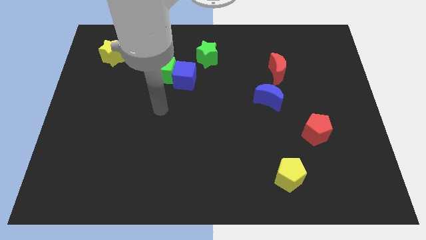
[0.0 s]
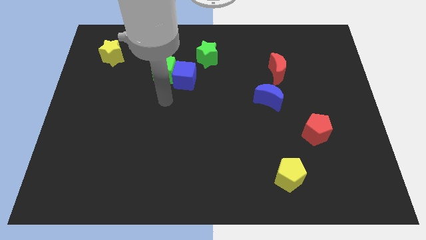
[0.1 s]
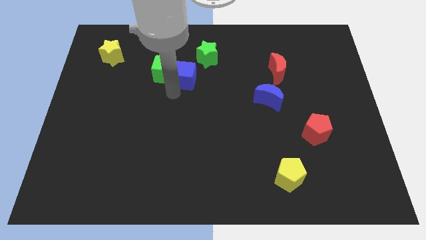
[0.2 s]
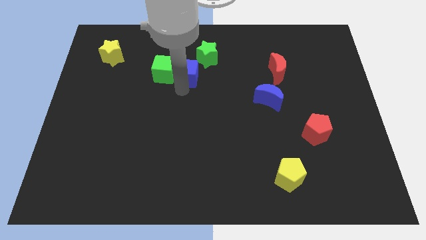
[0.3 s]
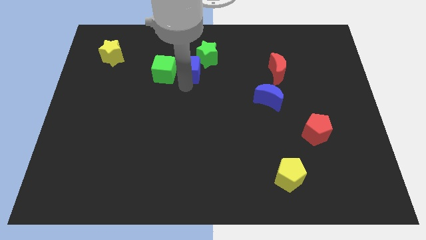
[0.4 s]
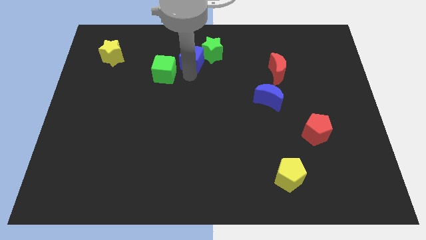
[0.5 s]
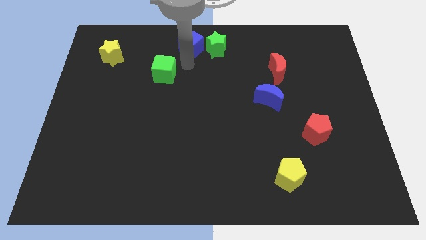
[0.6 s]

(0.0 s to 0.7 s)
pull the green cube apart from the blue cube

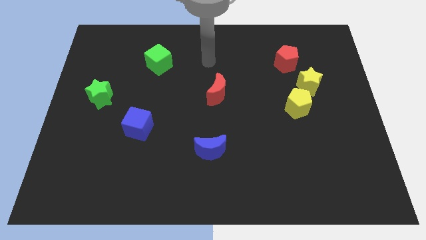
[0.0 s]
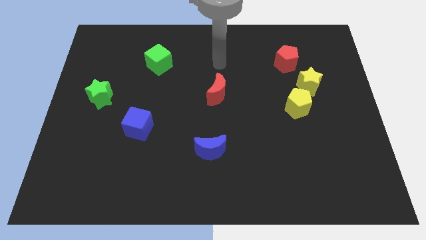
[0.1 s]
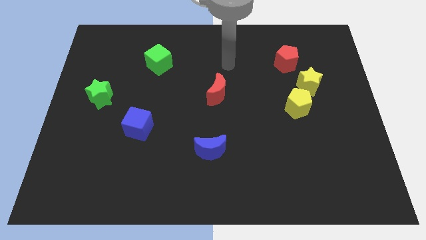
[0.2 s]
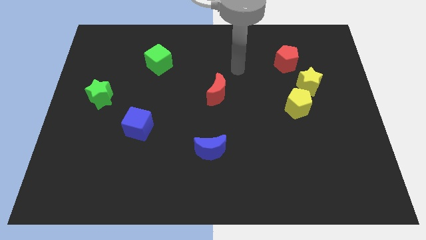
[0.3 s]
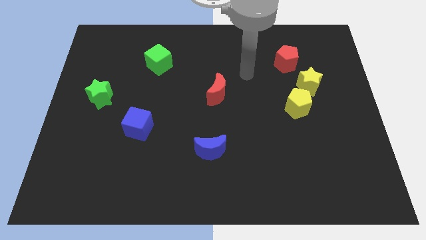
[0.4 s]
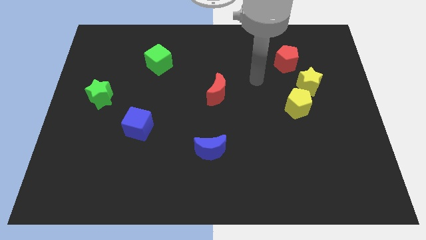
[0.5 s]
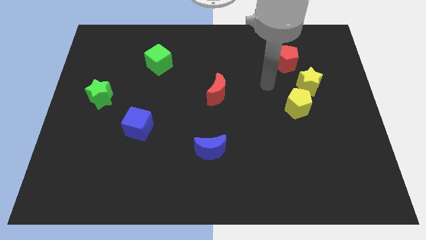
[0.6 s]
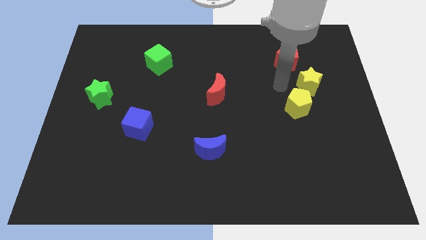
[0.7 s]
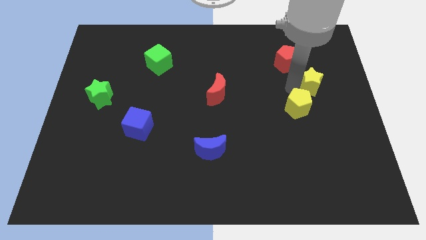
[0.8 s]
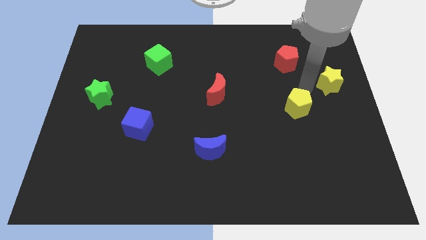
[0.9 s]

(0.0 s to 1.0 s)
pull the yellow pentagon apart from the yellow star

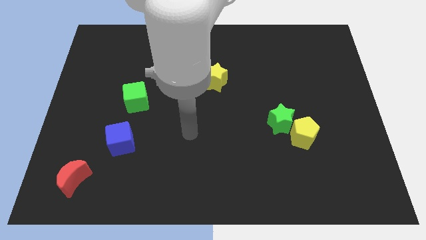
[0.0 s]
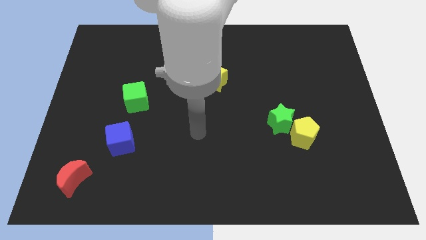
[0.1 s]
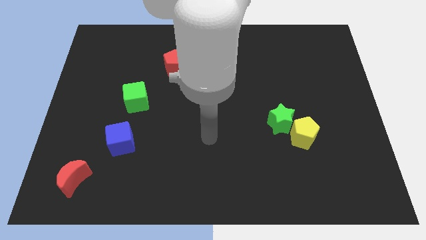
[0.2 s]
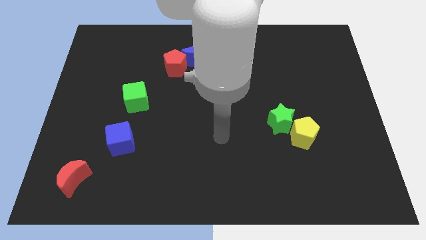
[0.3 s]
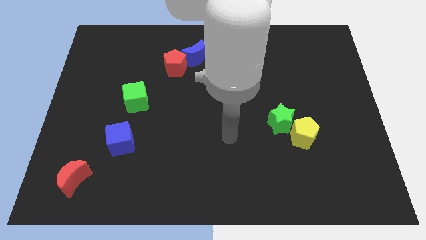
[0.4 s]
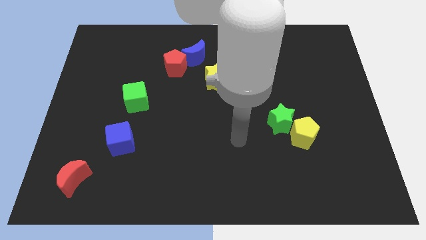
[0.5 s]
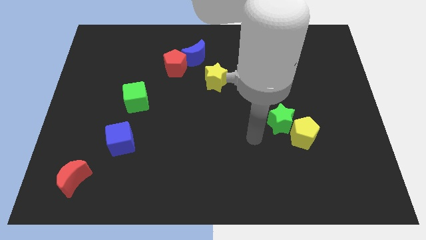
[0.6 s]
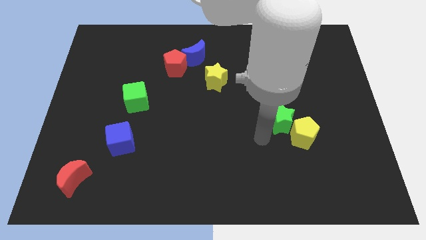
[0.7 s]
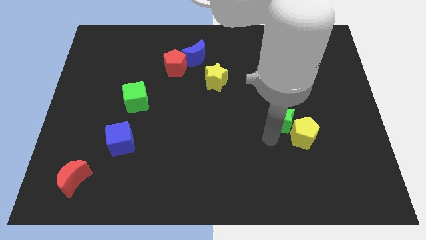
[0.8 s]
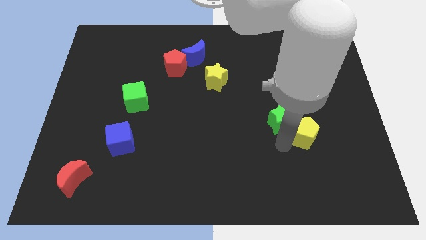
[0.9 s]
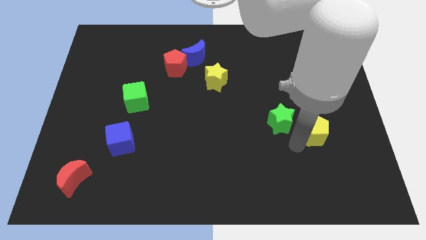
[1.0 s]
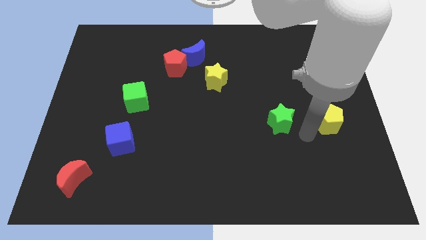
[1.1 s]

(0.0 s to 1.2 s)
pull the green star apart from the yellow pentagon

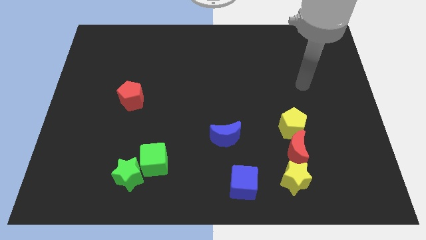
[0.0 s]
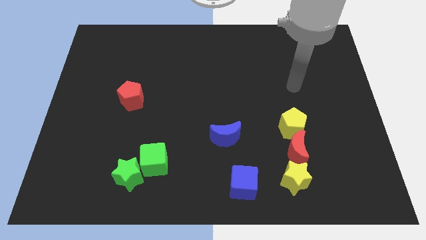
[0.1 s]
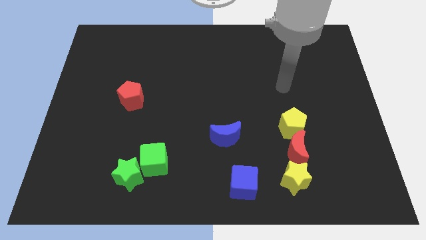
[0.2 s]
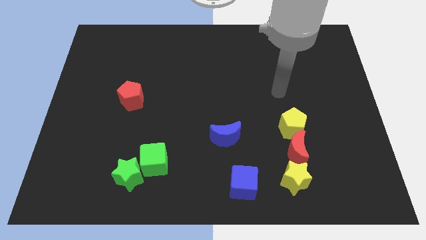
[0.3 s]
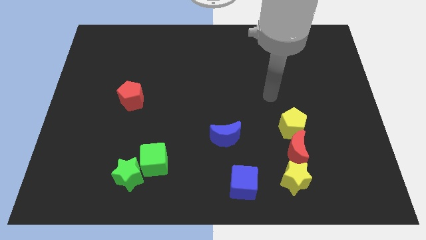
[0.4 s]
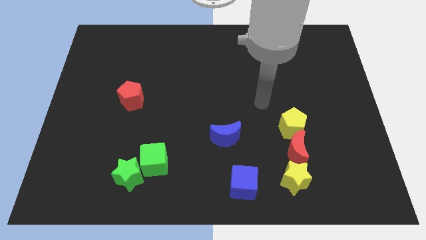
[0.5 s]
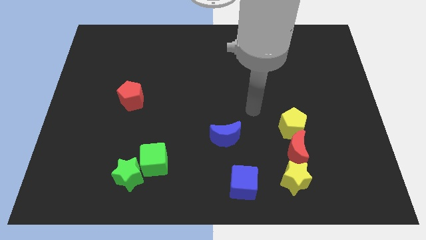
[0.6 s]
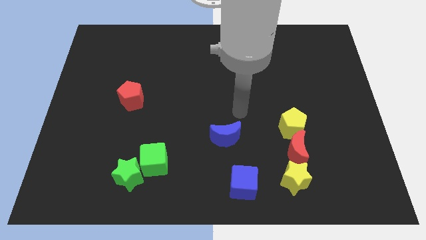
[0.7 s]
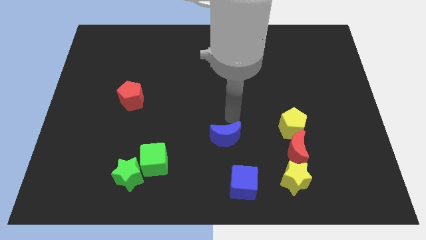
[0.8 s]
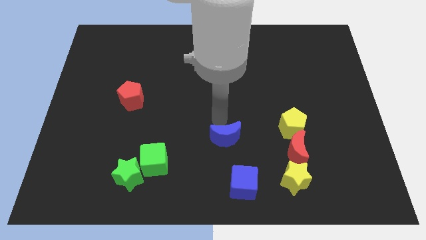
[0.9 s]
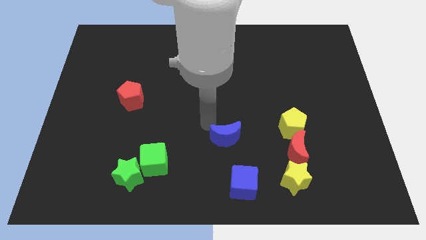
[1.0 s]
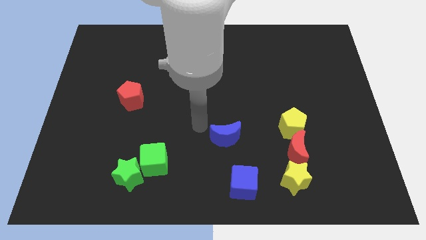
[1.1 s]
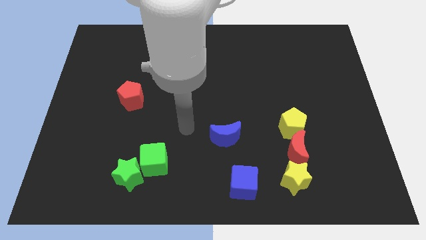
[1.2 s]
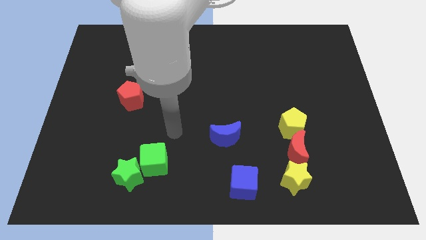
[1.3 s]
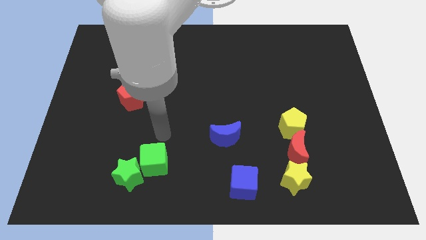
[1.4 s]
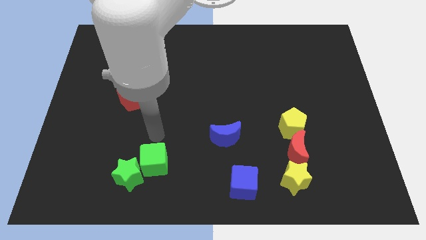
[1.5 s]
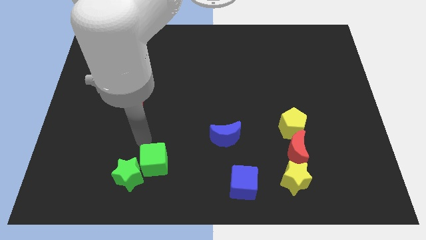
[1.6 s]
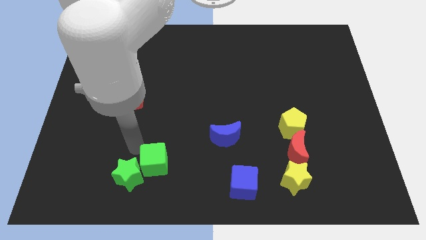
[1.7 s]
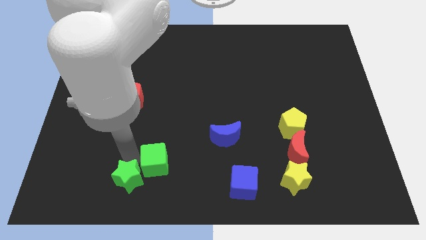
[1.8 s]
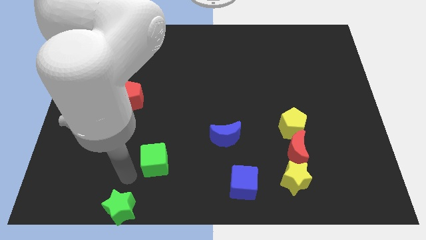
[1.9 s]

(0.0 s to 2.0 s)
move the green cube away from the green star

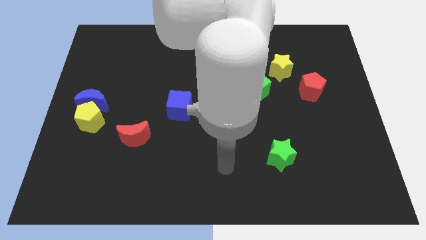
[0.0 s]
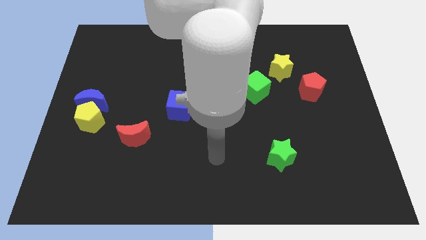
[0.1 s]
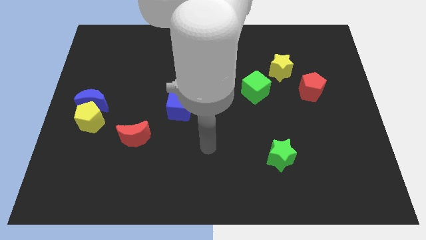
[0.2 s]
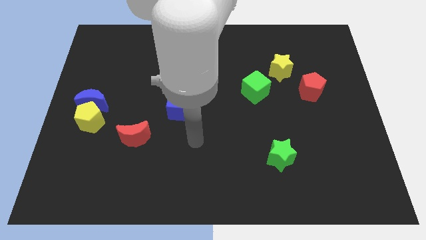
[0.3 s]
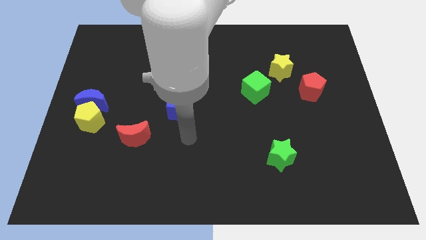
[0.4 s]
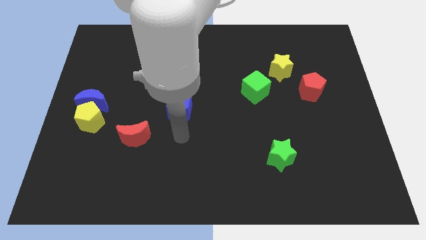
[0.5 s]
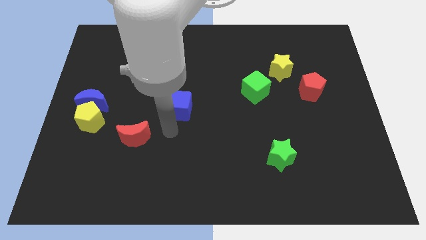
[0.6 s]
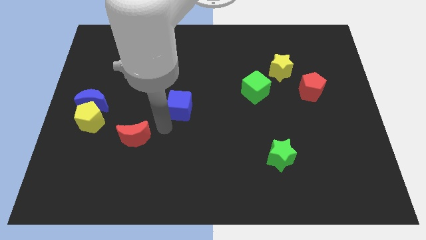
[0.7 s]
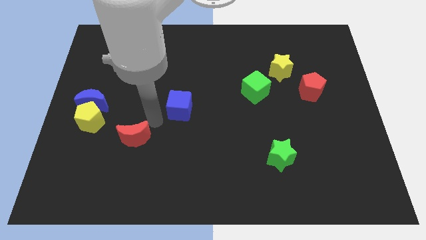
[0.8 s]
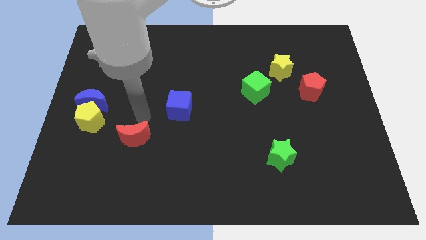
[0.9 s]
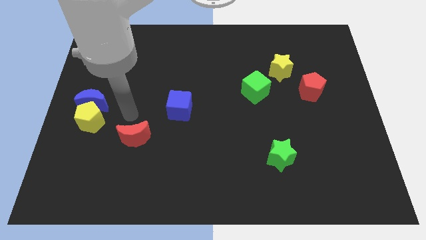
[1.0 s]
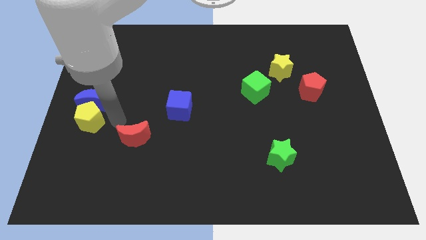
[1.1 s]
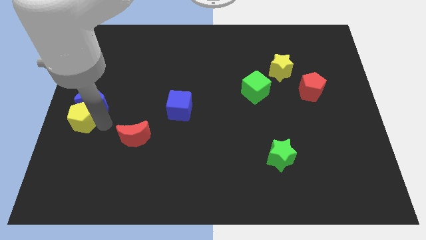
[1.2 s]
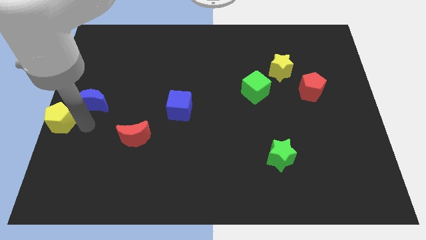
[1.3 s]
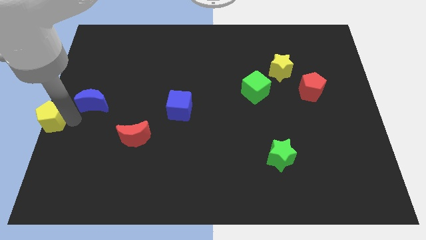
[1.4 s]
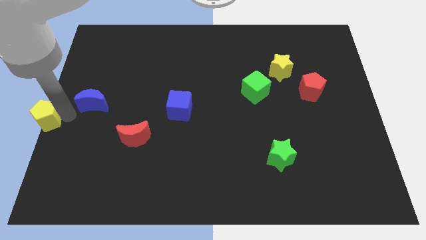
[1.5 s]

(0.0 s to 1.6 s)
pull the blue moon apart from the yellow pentagon

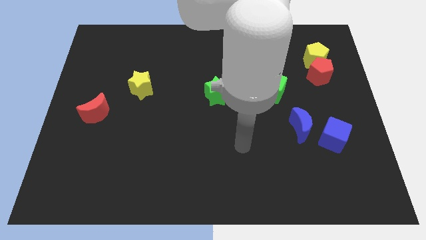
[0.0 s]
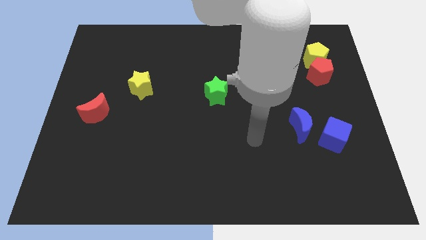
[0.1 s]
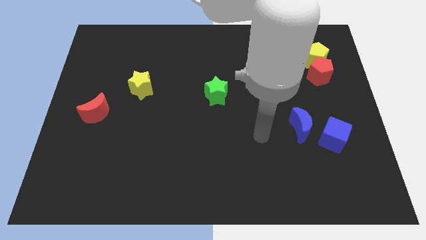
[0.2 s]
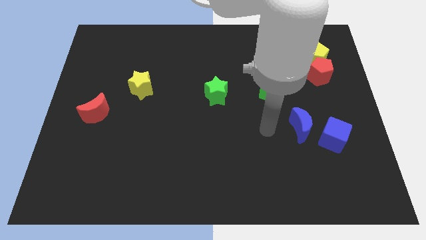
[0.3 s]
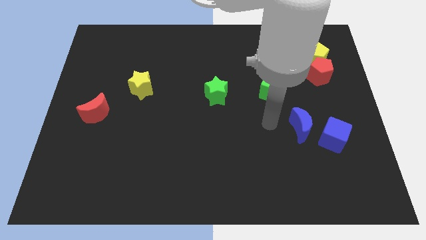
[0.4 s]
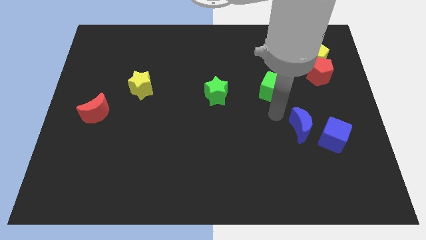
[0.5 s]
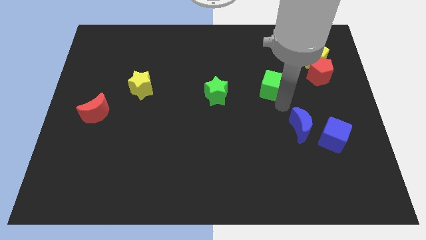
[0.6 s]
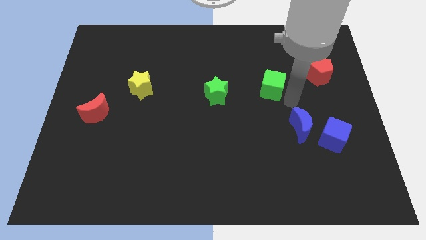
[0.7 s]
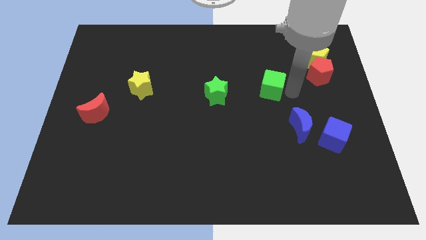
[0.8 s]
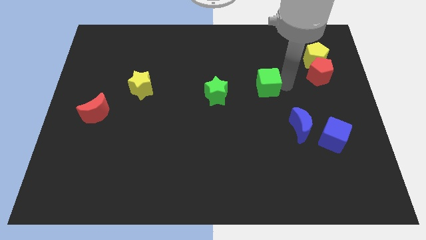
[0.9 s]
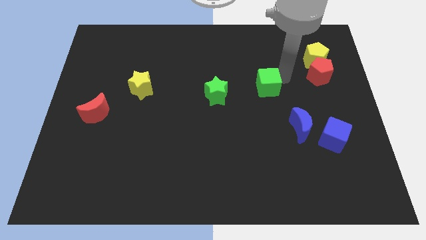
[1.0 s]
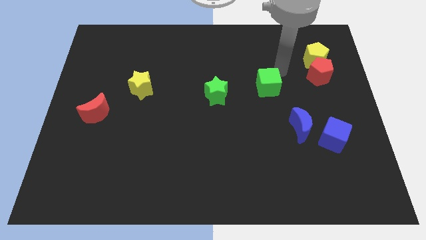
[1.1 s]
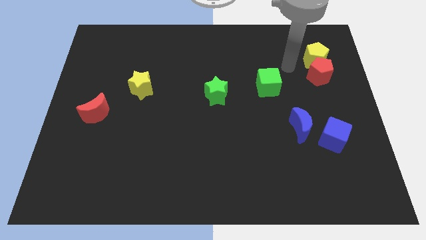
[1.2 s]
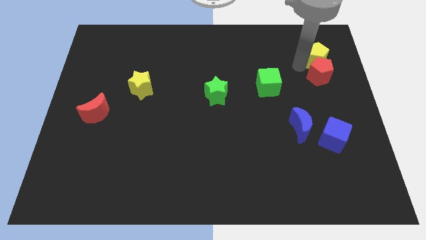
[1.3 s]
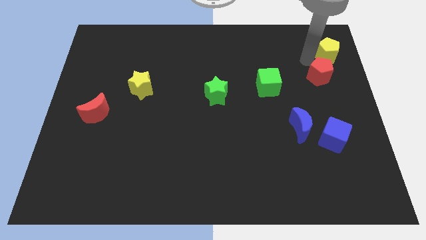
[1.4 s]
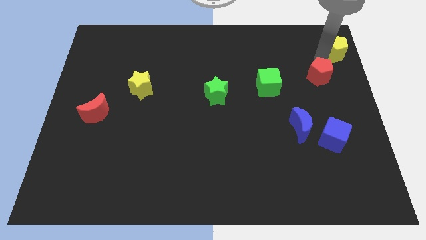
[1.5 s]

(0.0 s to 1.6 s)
move the red pentagon away from the yellow pentagon

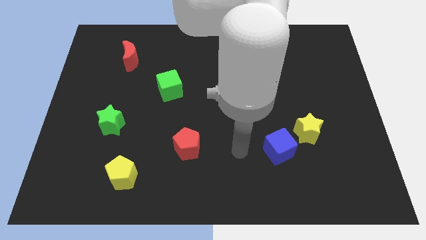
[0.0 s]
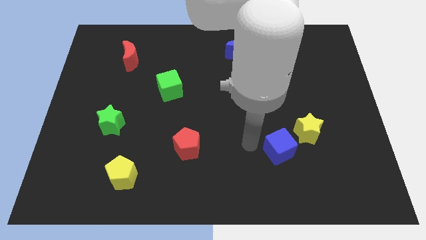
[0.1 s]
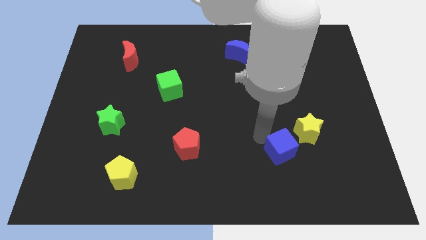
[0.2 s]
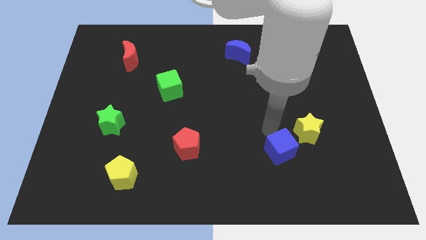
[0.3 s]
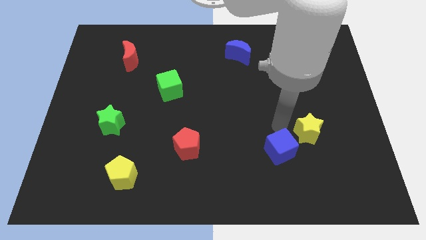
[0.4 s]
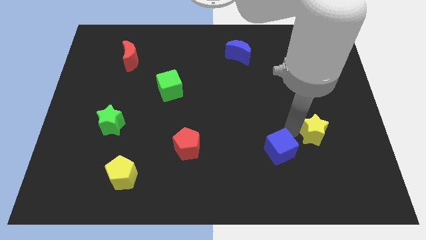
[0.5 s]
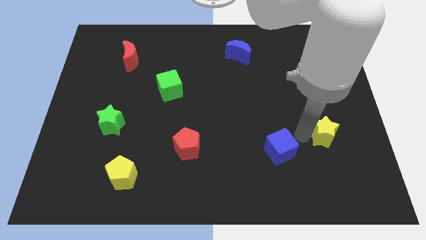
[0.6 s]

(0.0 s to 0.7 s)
pull the blue cube apart from the yellow star

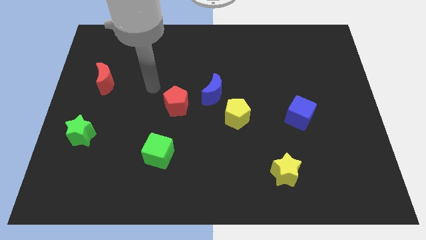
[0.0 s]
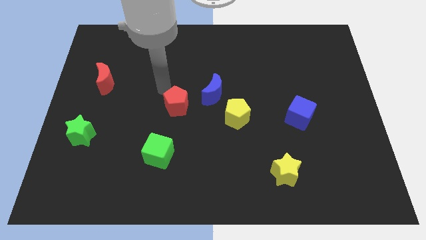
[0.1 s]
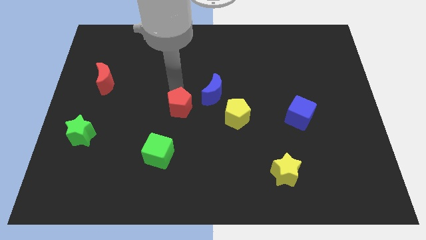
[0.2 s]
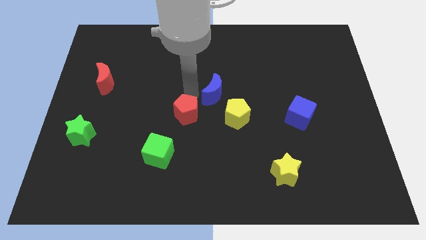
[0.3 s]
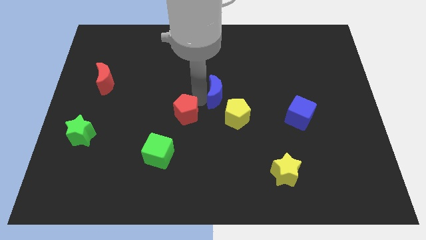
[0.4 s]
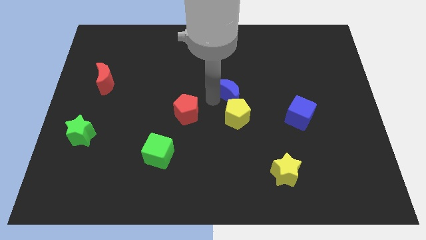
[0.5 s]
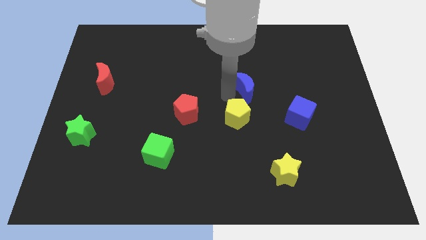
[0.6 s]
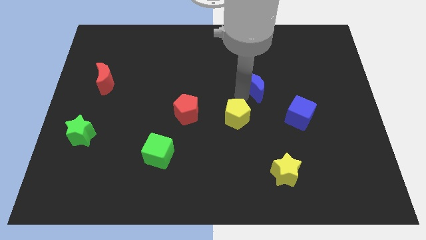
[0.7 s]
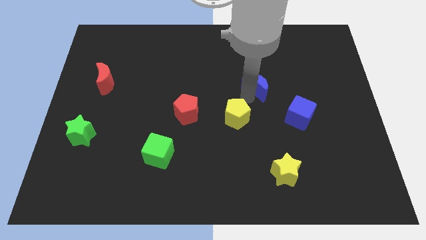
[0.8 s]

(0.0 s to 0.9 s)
move the yellow pentagon away from the blue moon
